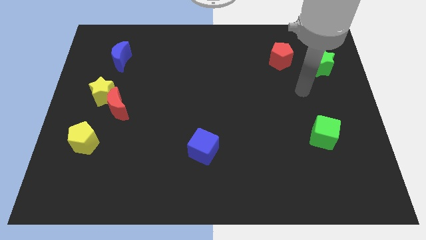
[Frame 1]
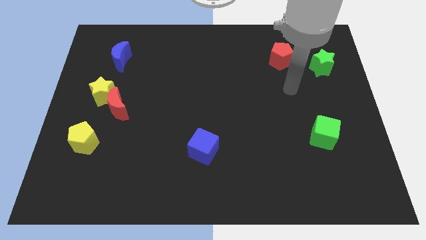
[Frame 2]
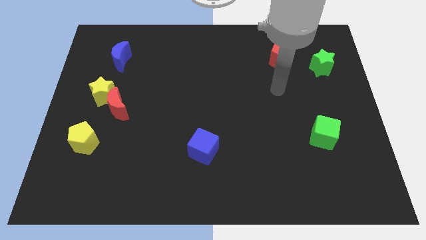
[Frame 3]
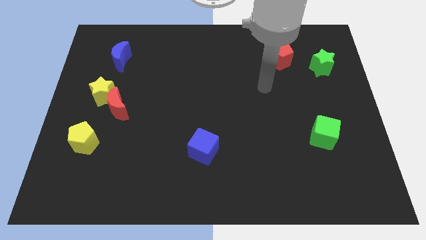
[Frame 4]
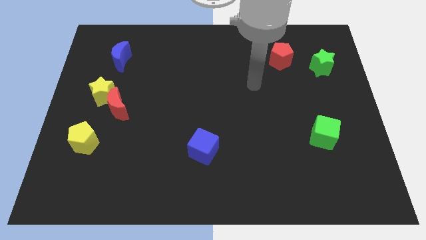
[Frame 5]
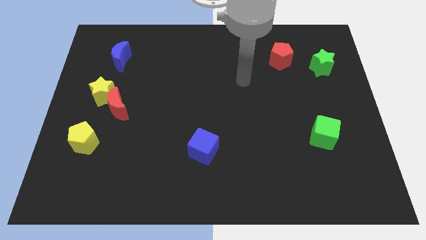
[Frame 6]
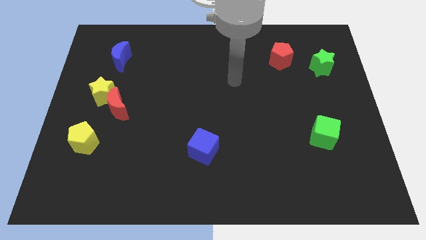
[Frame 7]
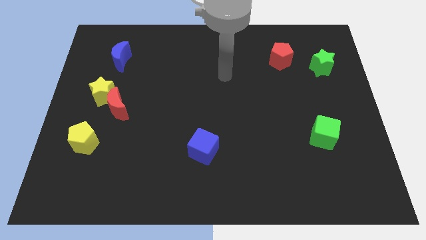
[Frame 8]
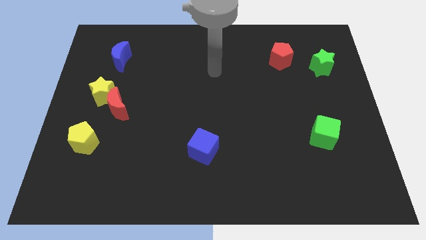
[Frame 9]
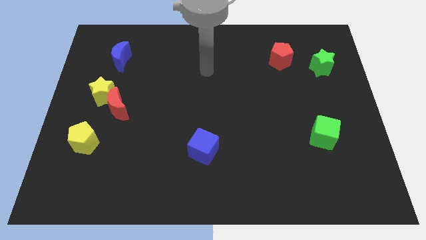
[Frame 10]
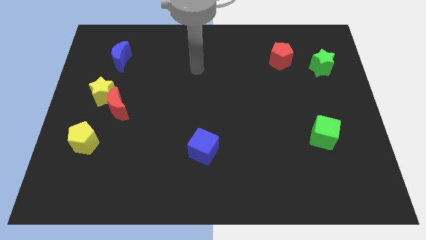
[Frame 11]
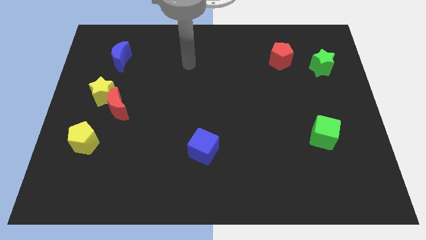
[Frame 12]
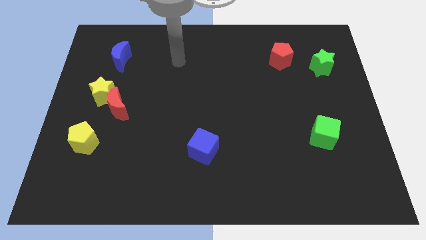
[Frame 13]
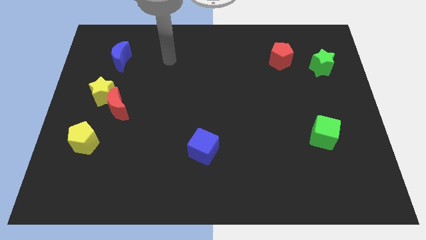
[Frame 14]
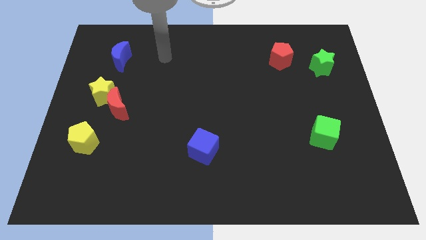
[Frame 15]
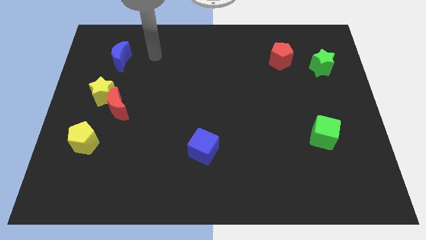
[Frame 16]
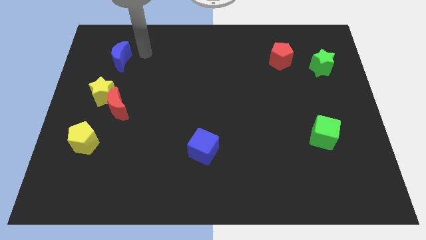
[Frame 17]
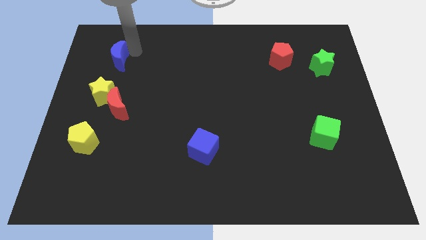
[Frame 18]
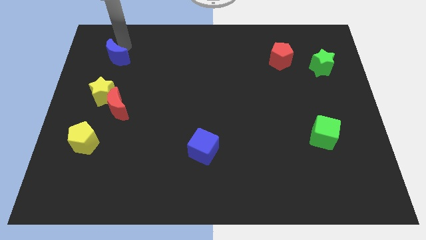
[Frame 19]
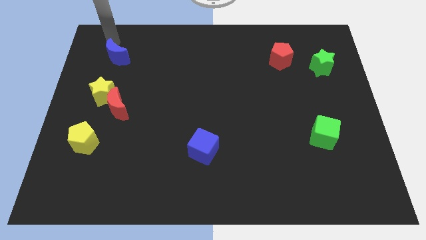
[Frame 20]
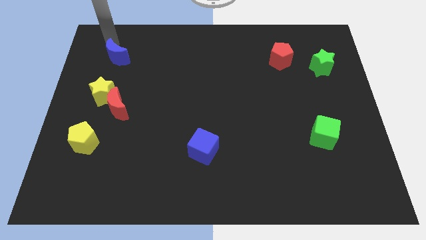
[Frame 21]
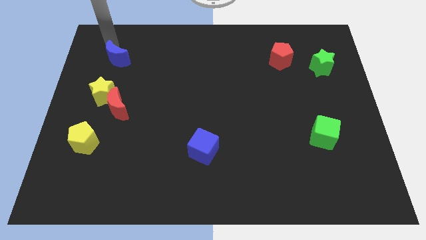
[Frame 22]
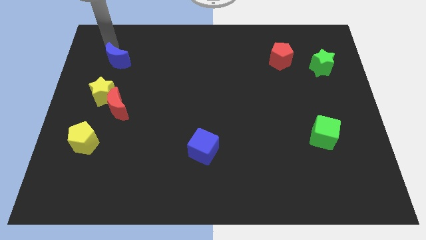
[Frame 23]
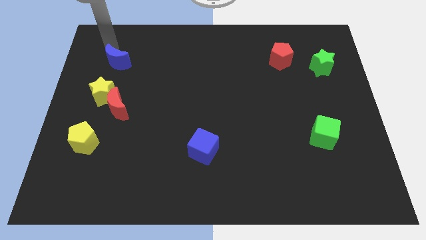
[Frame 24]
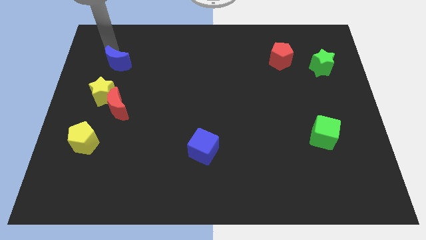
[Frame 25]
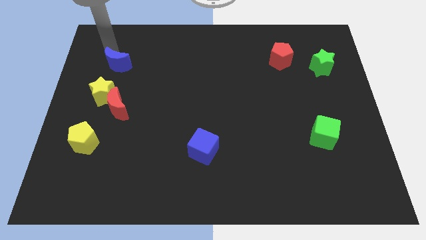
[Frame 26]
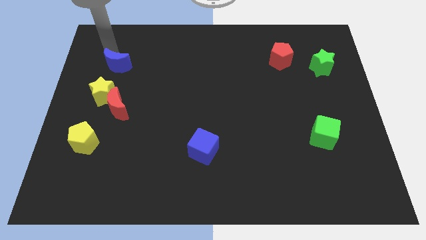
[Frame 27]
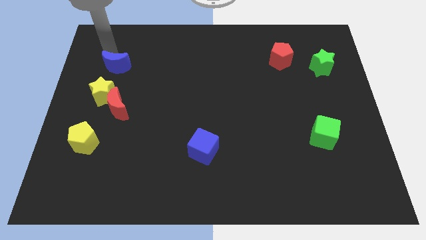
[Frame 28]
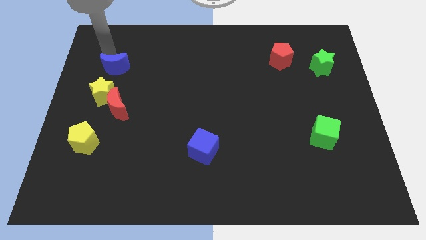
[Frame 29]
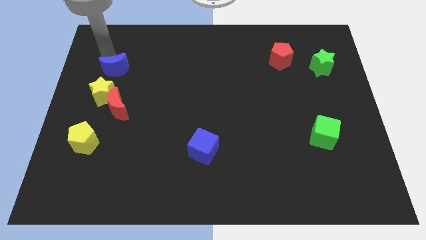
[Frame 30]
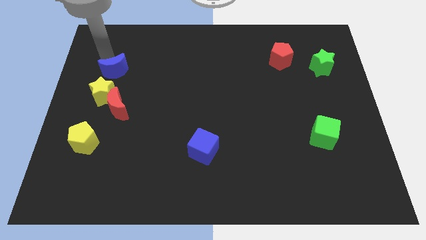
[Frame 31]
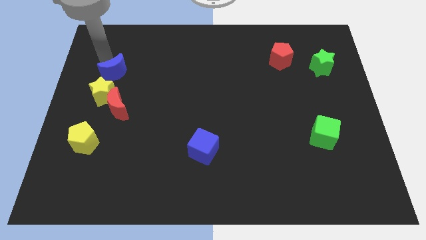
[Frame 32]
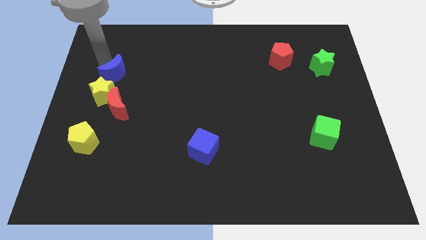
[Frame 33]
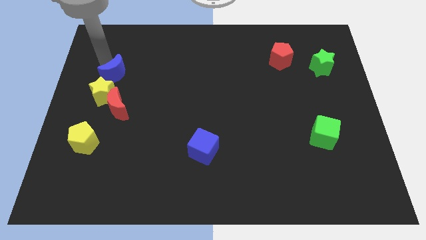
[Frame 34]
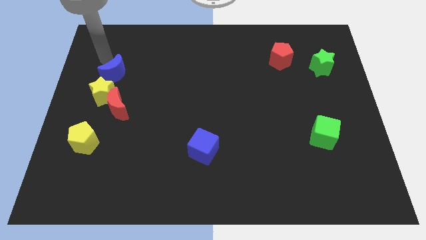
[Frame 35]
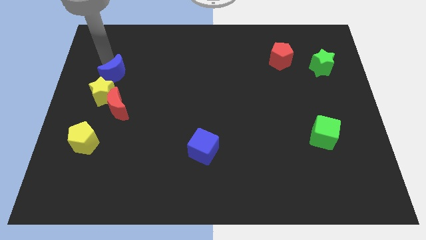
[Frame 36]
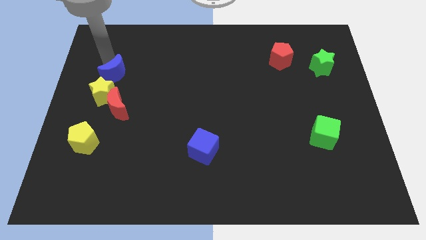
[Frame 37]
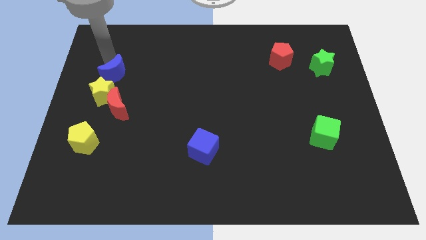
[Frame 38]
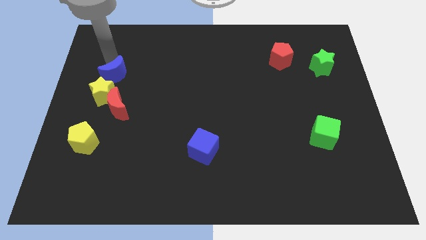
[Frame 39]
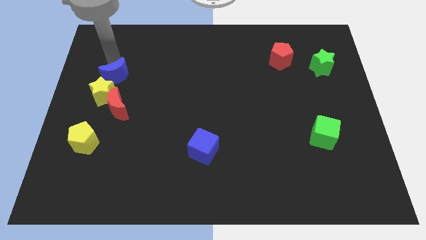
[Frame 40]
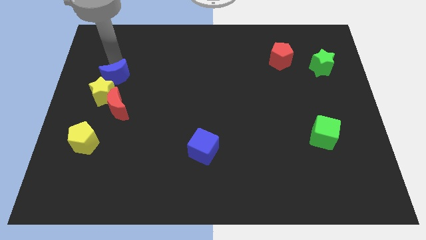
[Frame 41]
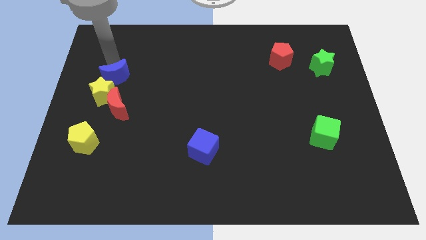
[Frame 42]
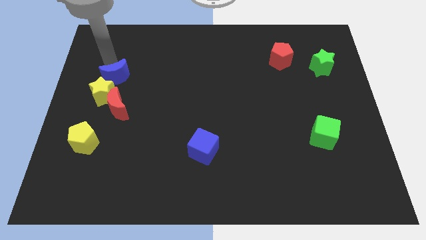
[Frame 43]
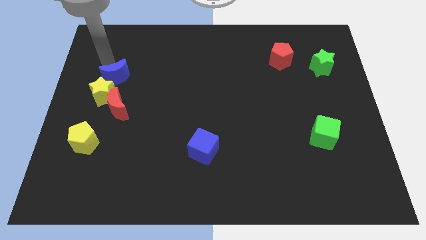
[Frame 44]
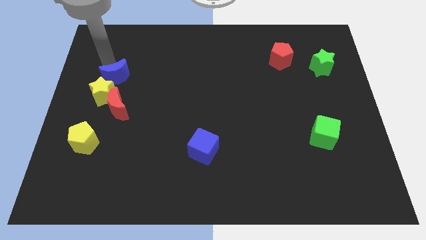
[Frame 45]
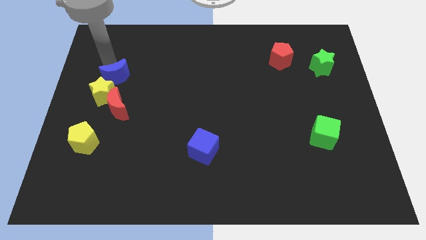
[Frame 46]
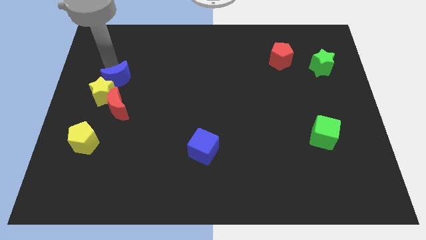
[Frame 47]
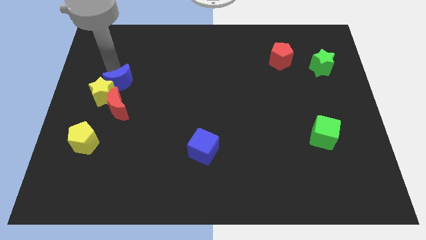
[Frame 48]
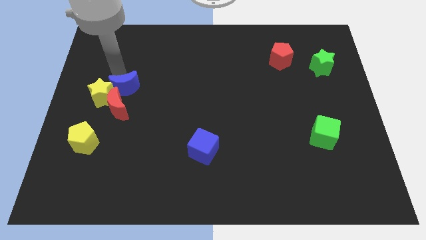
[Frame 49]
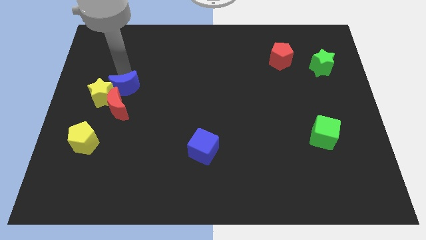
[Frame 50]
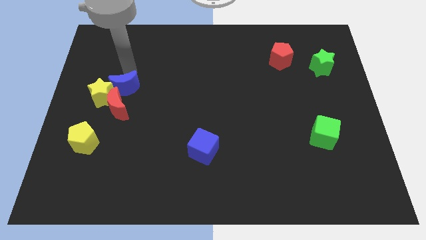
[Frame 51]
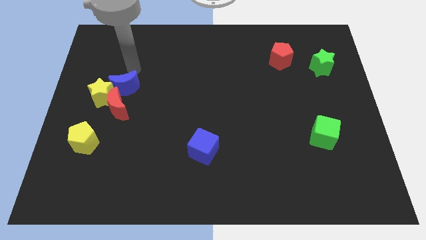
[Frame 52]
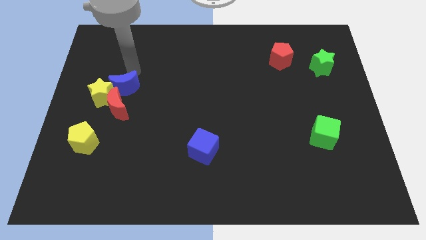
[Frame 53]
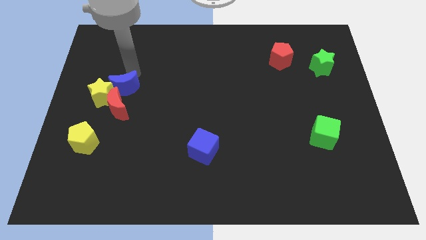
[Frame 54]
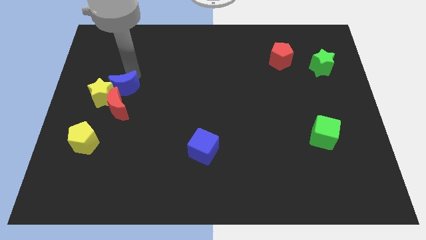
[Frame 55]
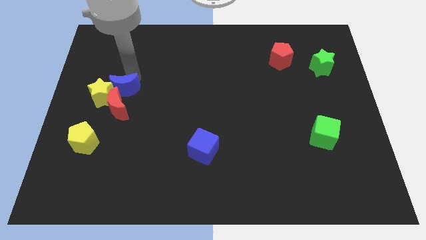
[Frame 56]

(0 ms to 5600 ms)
put the blue moon towards the red moon

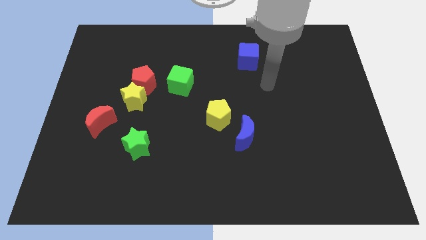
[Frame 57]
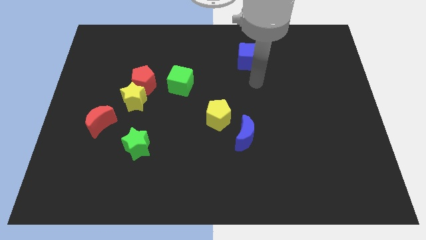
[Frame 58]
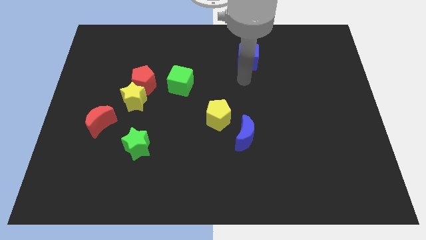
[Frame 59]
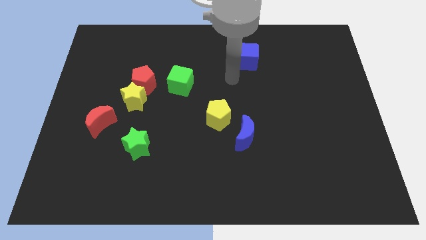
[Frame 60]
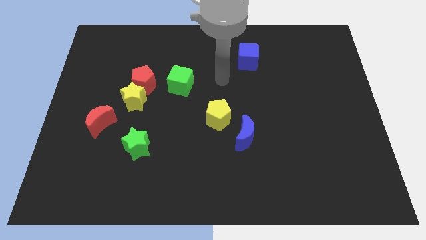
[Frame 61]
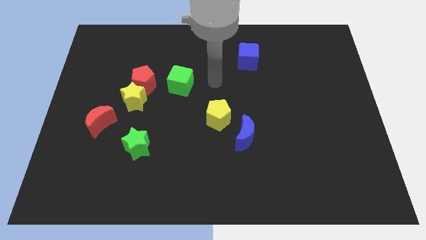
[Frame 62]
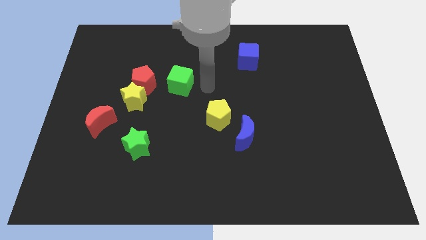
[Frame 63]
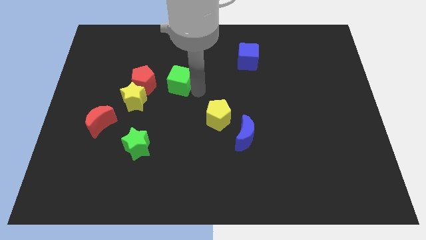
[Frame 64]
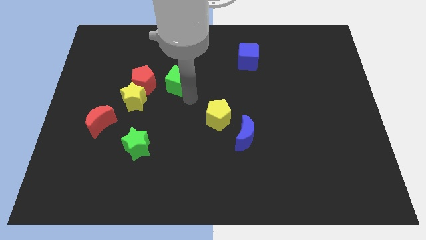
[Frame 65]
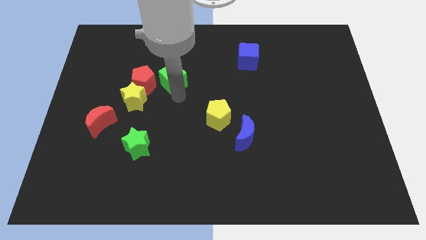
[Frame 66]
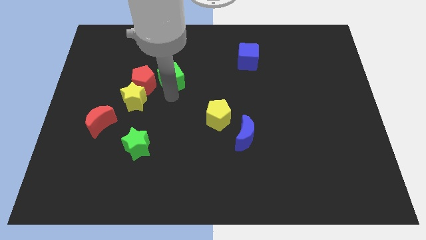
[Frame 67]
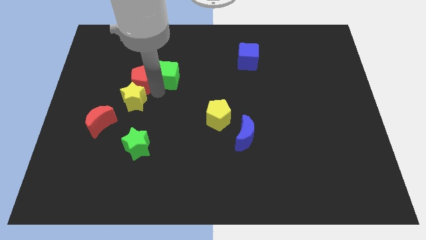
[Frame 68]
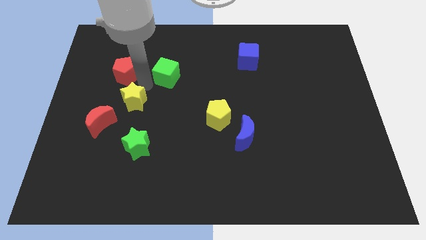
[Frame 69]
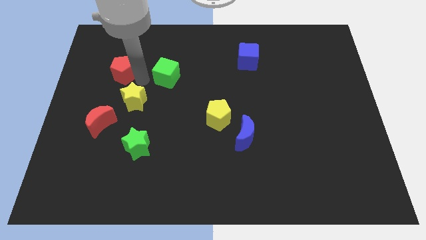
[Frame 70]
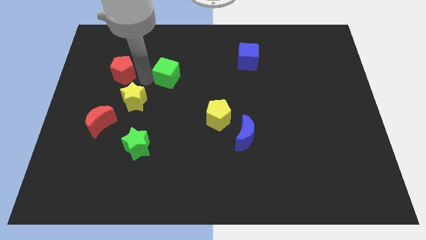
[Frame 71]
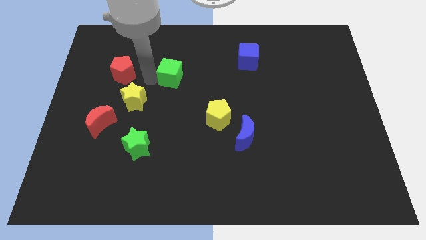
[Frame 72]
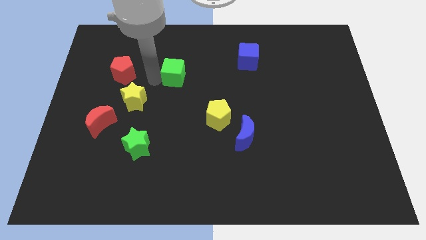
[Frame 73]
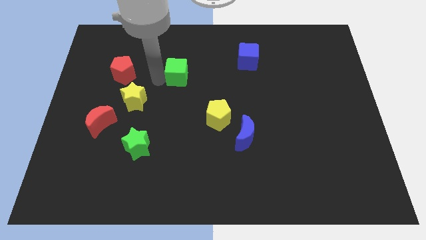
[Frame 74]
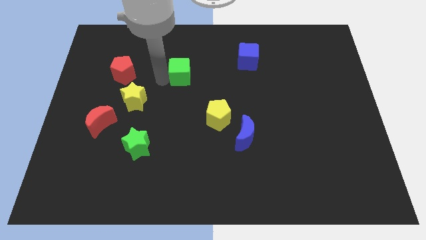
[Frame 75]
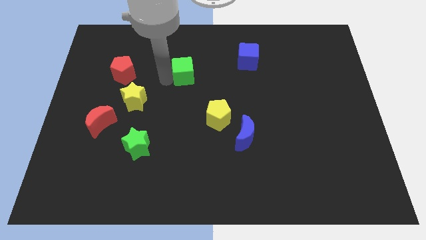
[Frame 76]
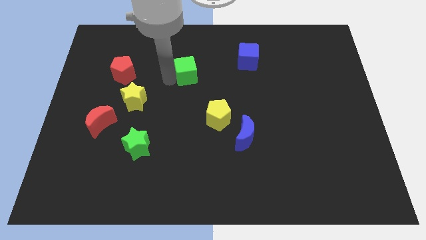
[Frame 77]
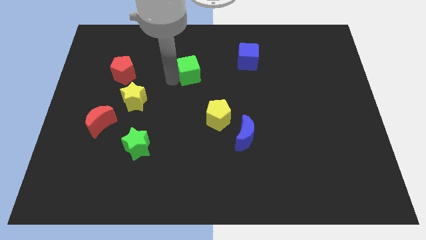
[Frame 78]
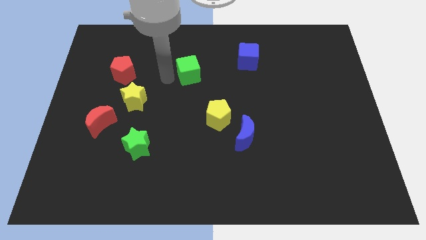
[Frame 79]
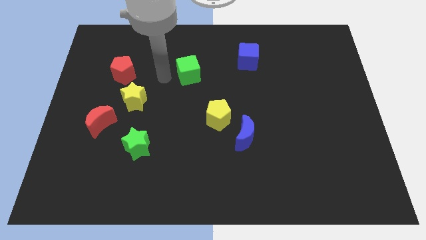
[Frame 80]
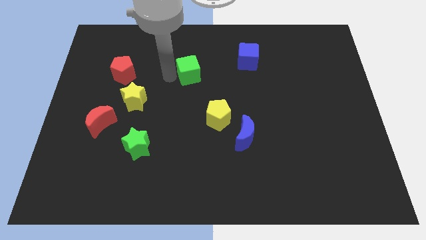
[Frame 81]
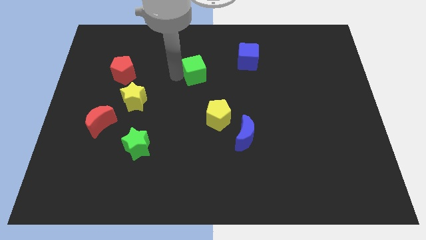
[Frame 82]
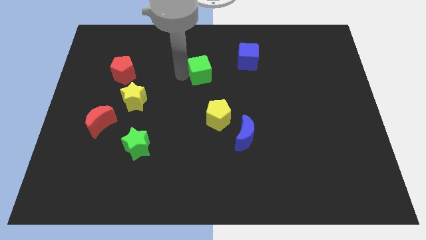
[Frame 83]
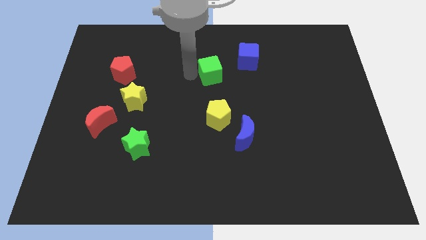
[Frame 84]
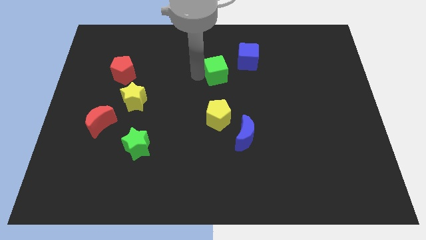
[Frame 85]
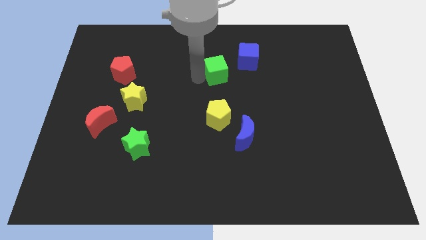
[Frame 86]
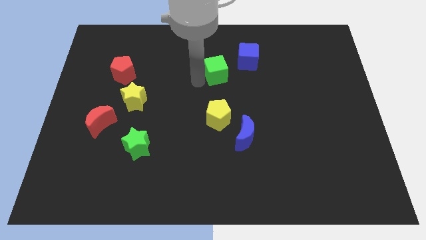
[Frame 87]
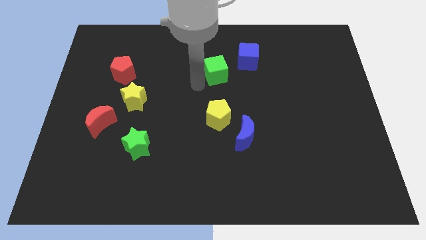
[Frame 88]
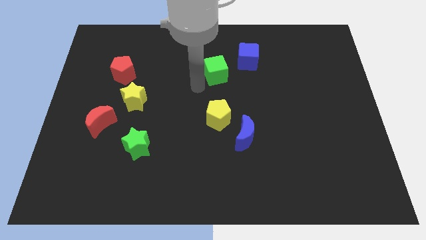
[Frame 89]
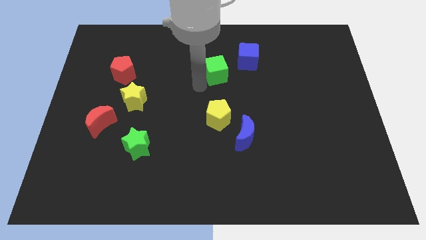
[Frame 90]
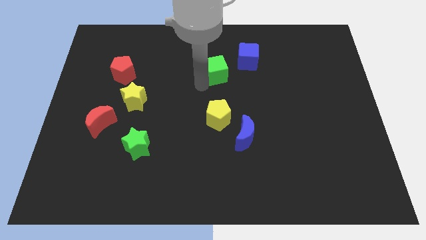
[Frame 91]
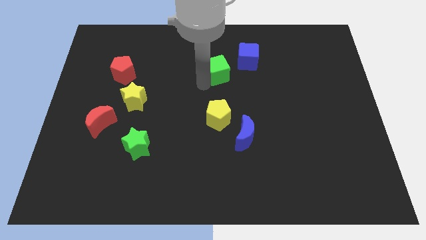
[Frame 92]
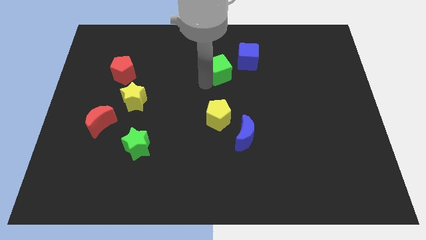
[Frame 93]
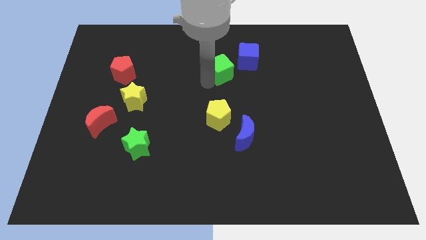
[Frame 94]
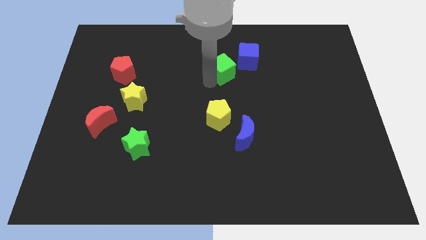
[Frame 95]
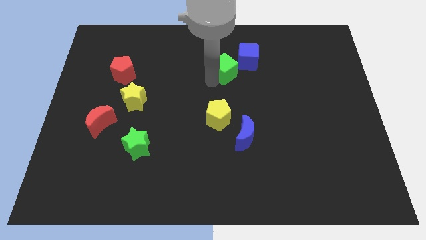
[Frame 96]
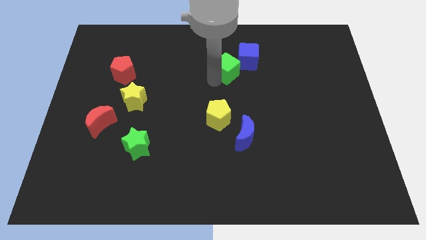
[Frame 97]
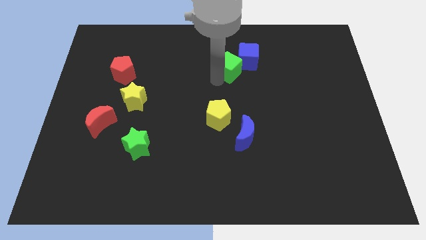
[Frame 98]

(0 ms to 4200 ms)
move the green cube towards the blue cube
